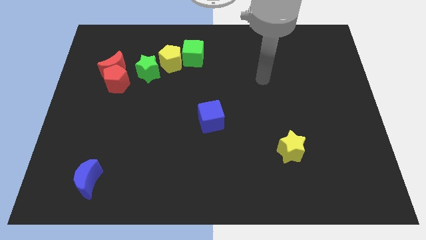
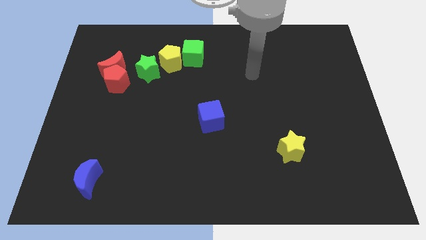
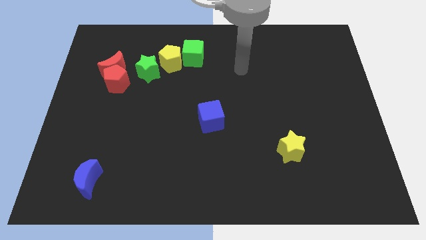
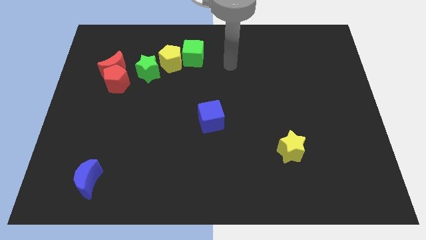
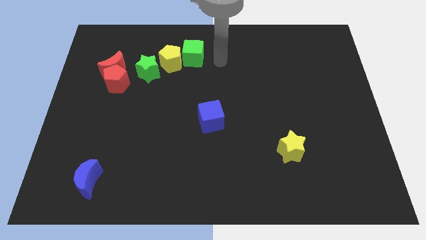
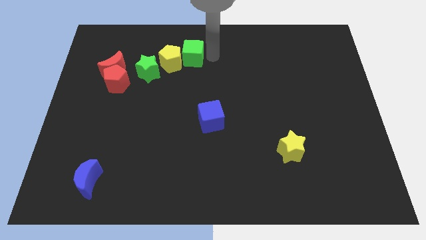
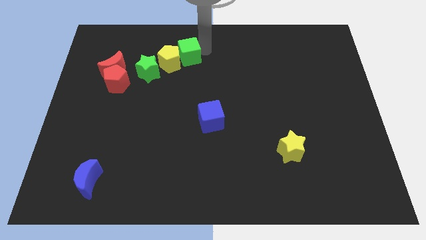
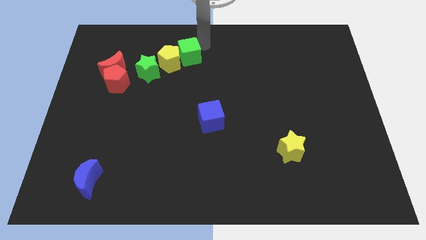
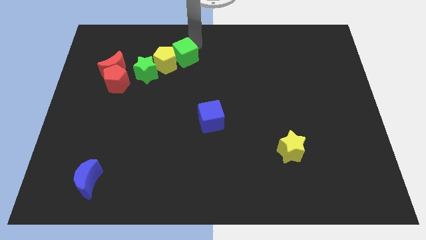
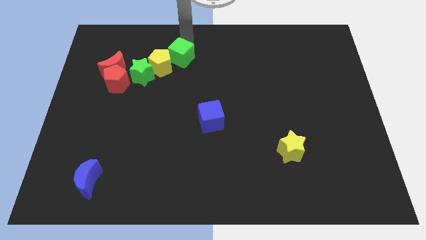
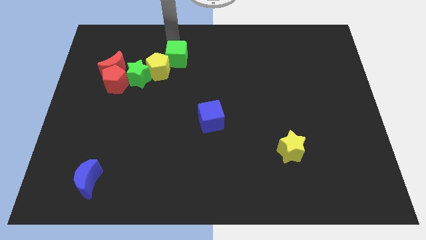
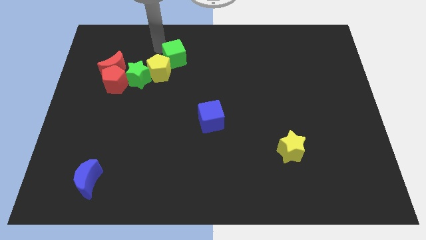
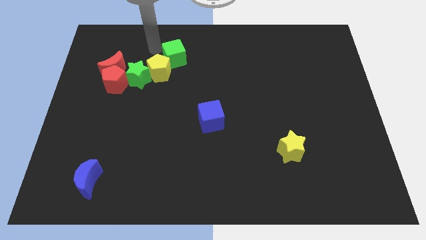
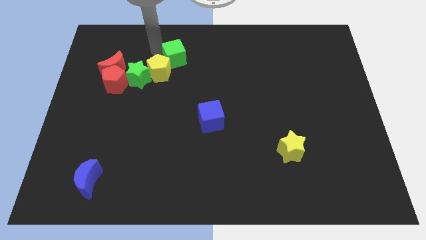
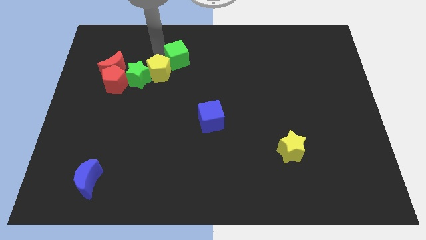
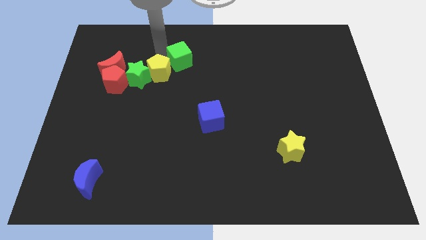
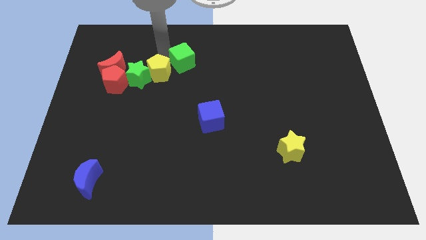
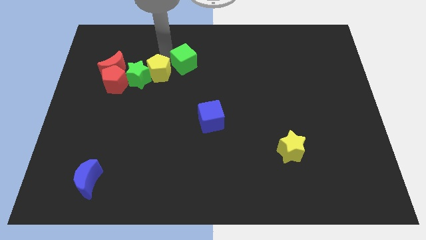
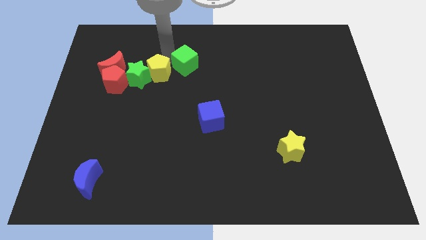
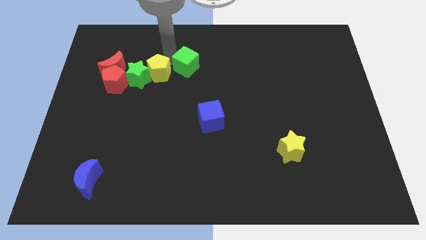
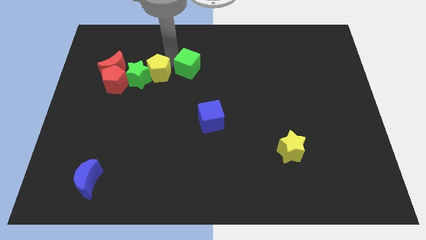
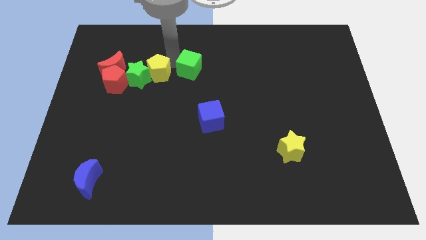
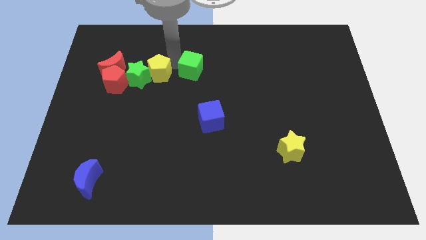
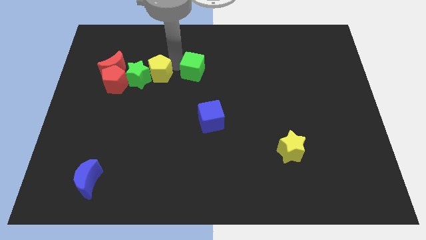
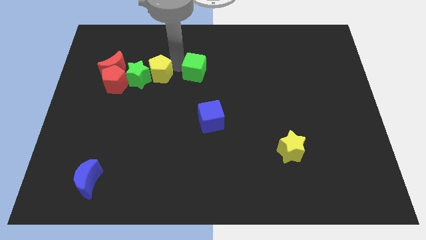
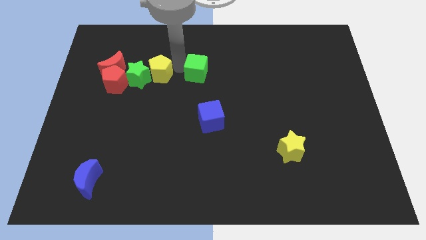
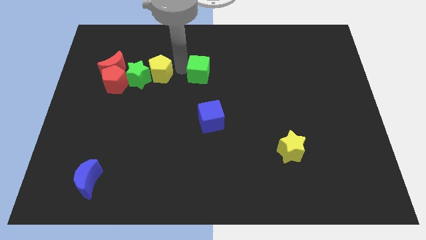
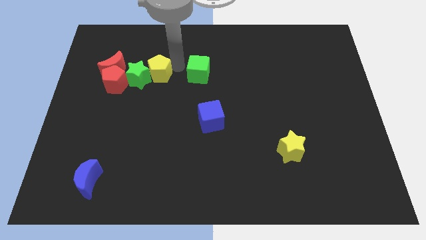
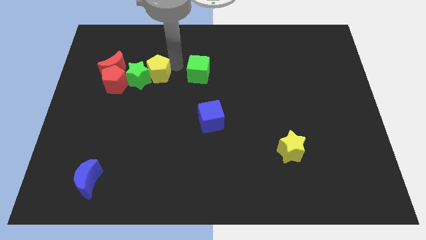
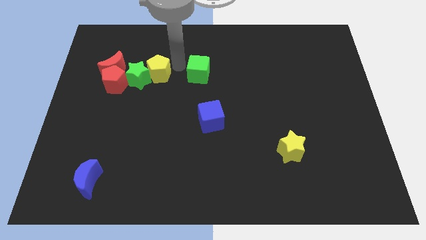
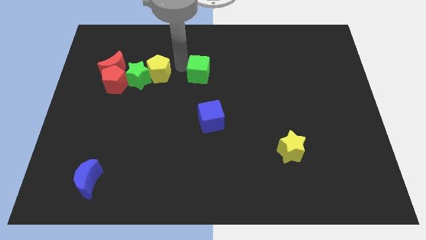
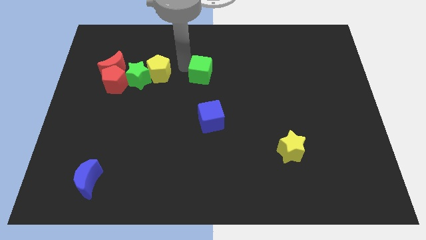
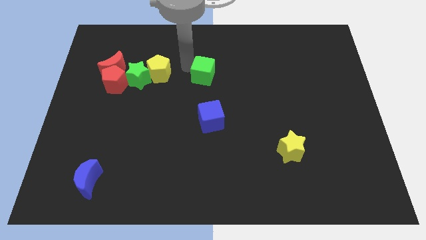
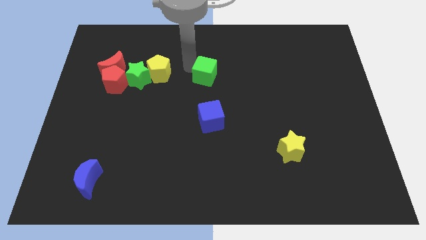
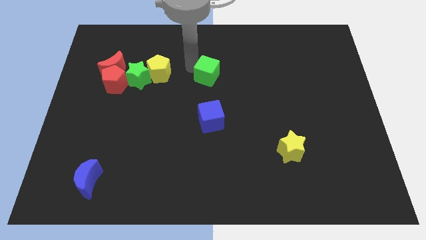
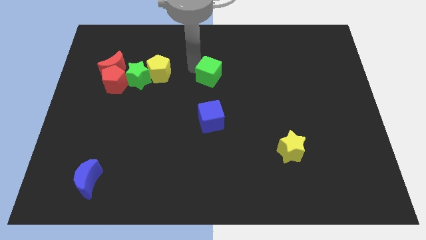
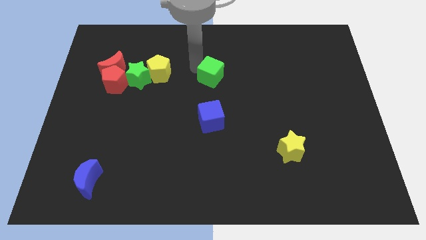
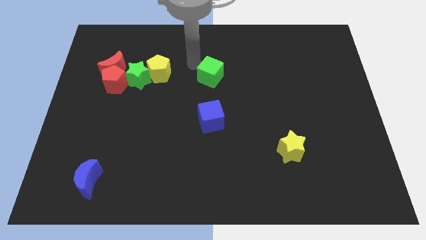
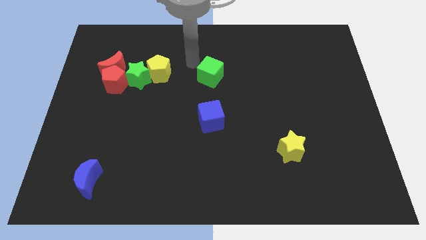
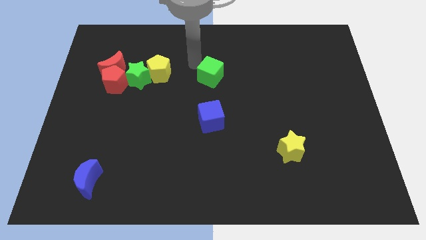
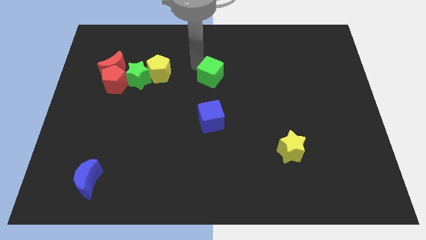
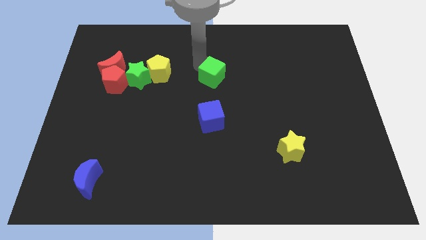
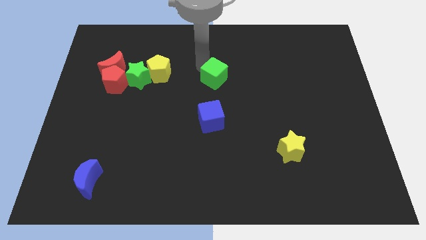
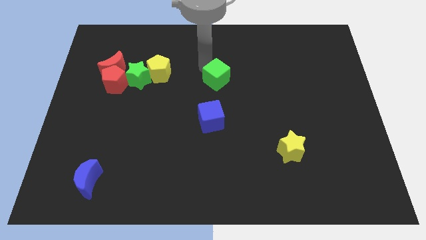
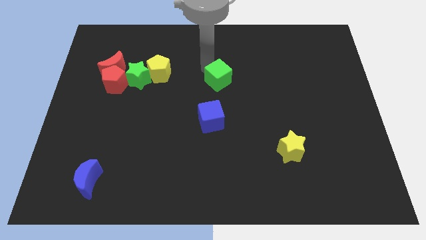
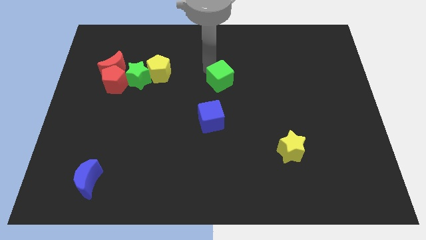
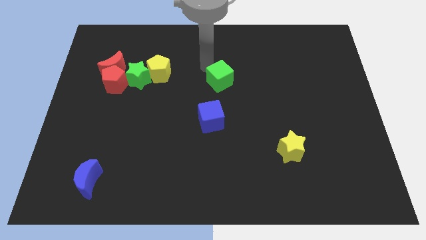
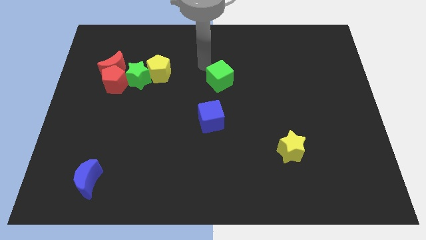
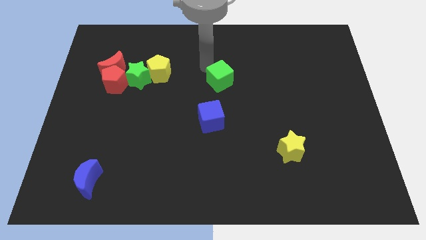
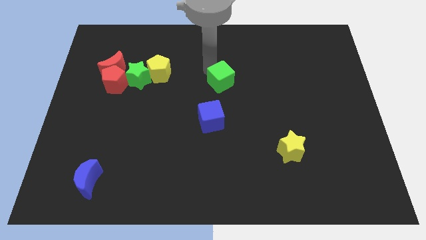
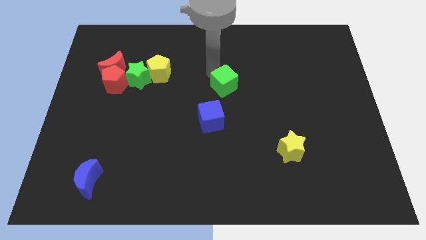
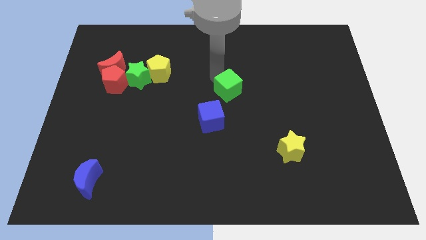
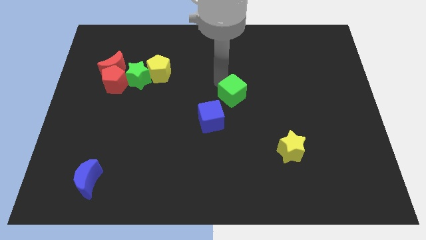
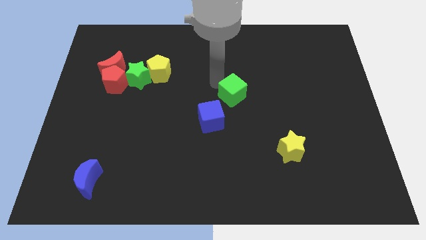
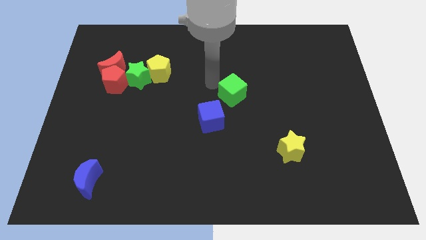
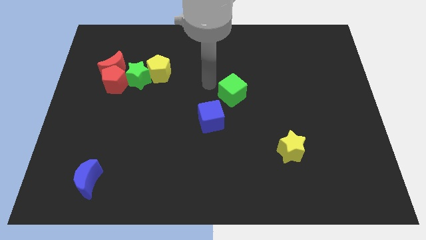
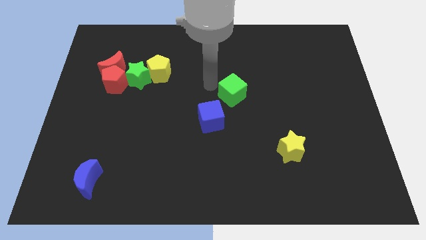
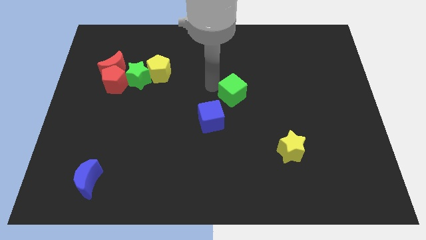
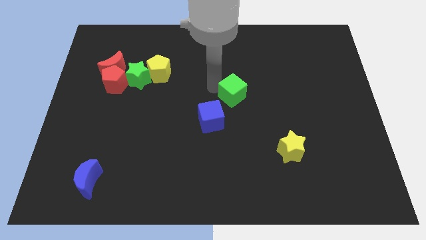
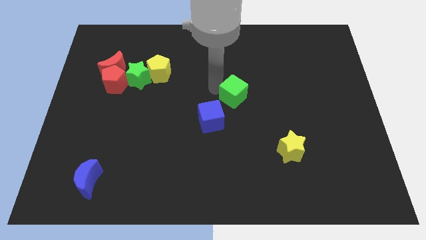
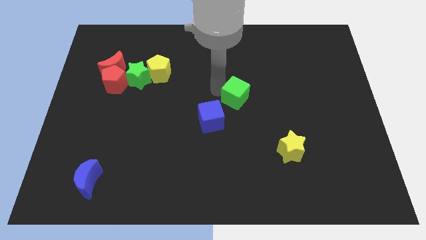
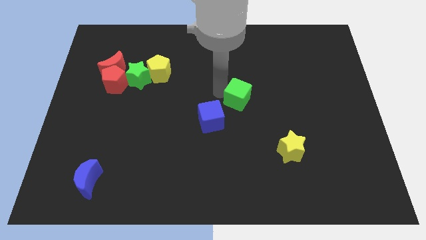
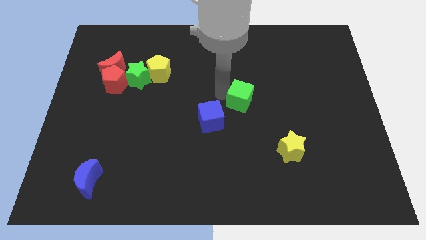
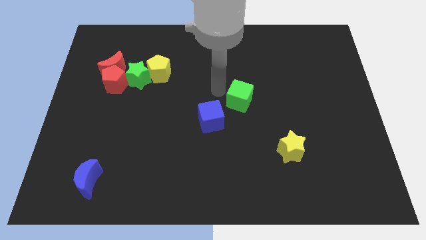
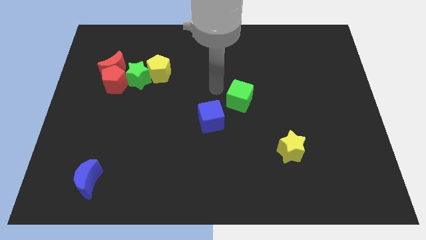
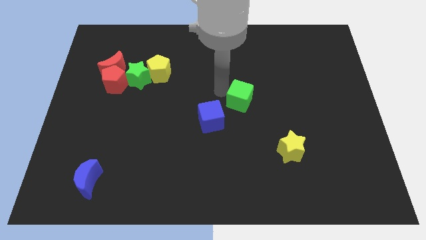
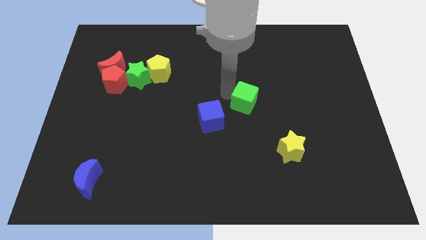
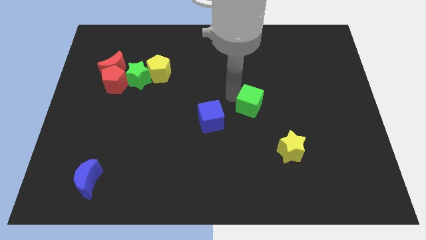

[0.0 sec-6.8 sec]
slide the green cube downwards and right

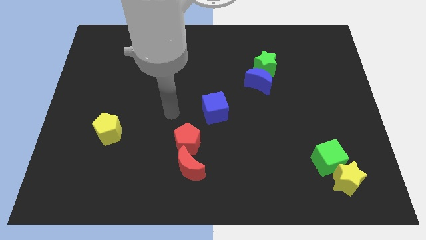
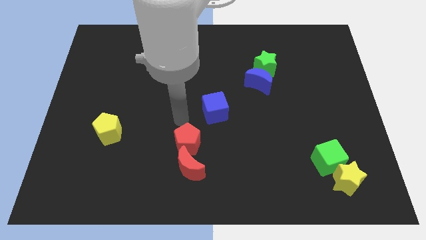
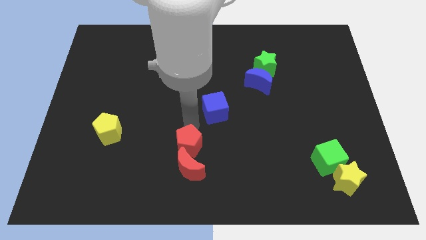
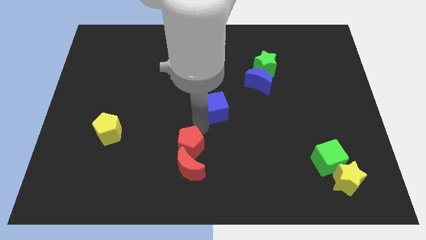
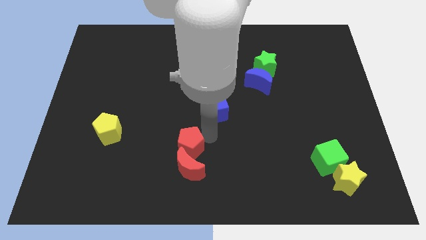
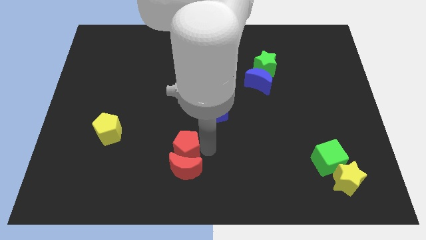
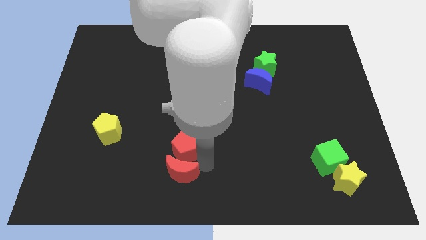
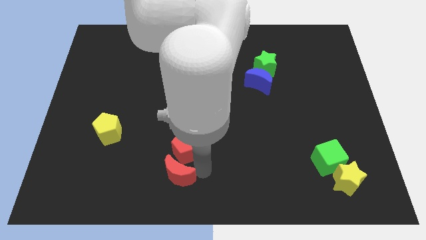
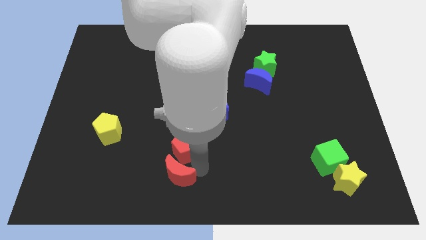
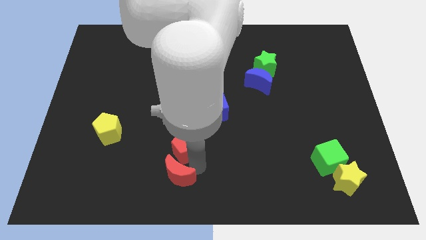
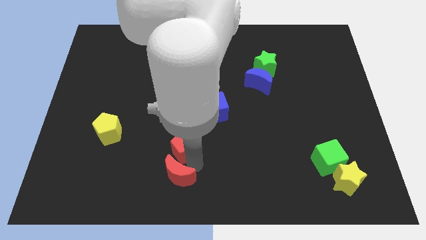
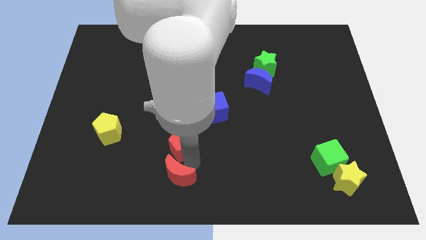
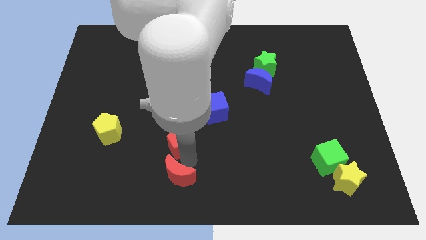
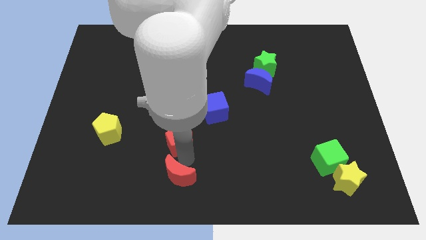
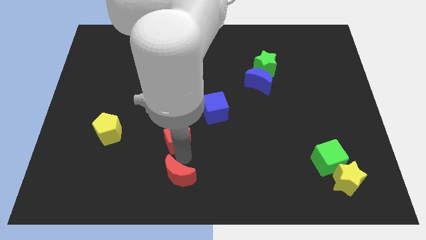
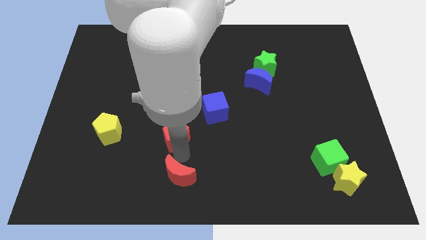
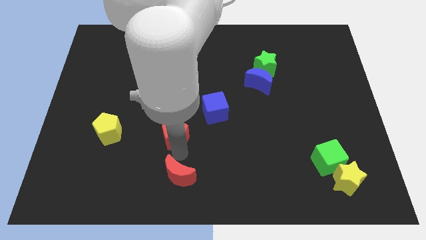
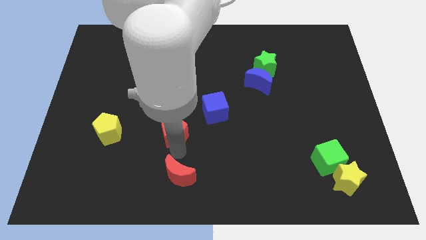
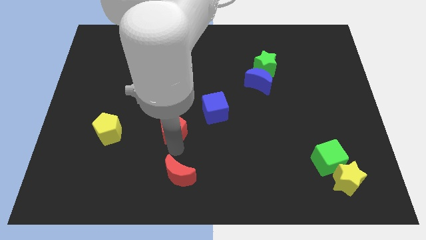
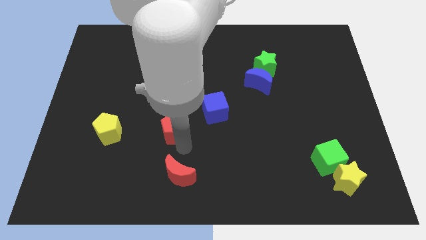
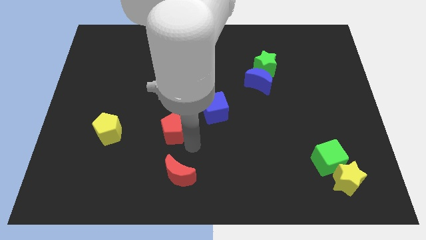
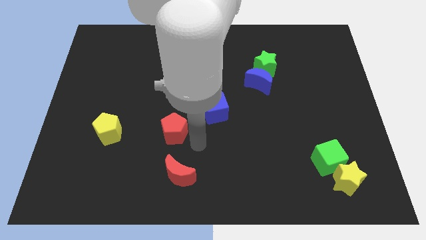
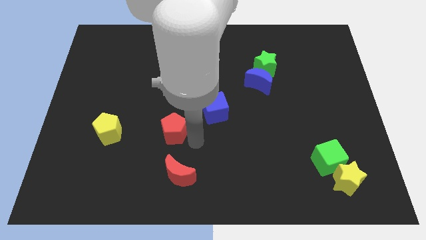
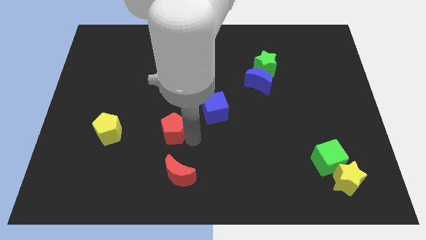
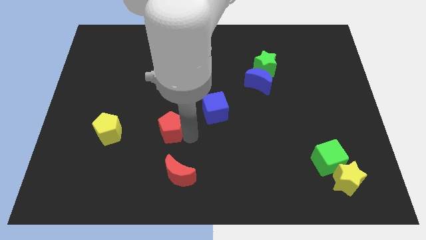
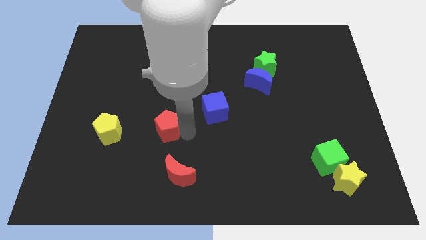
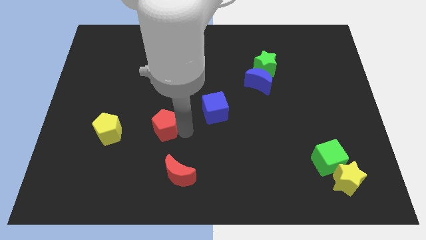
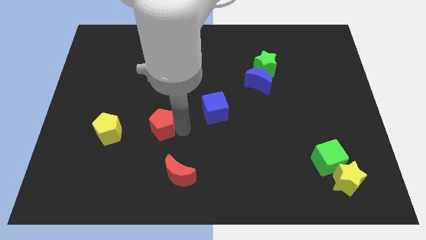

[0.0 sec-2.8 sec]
slightly slide the red pentagon up and left diagonally
